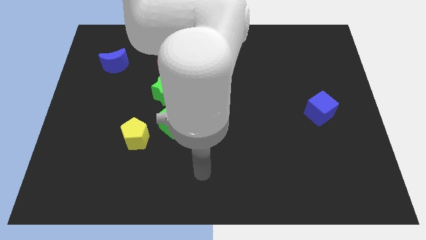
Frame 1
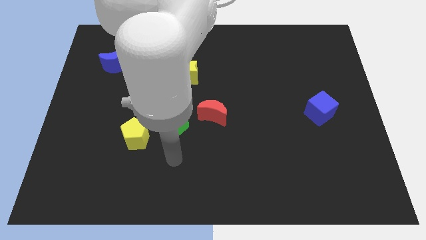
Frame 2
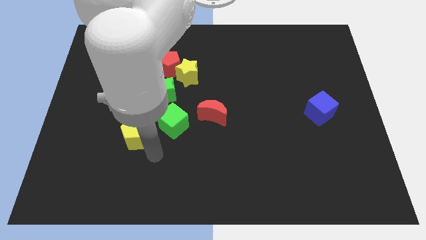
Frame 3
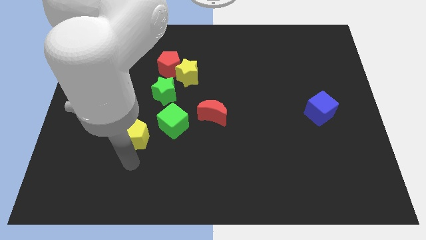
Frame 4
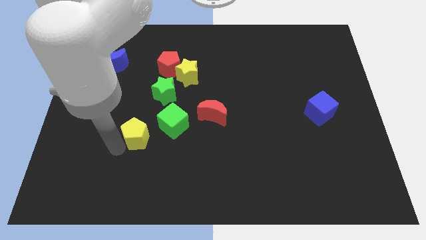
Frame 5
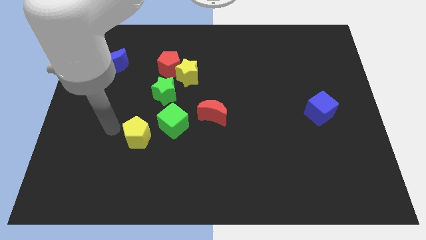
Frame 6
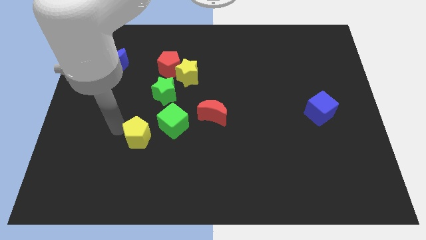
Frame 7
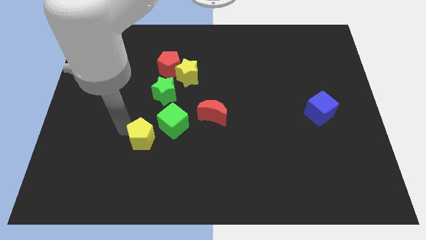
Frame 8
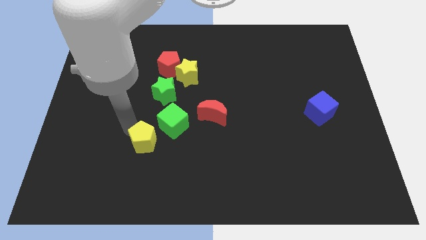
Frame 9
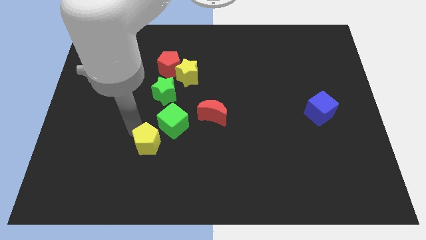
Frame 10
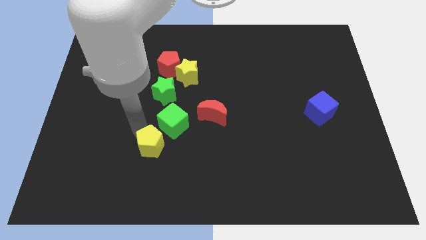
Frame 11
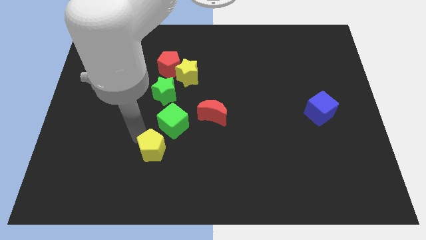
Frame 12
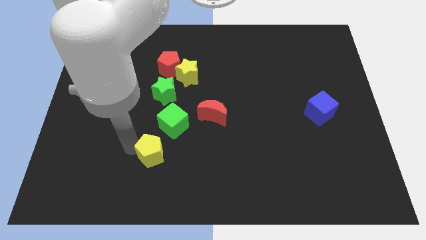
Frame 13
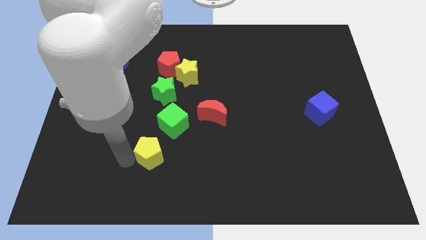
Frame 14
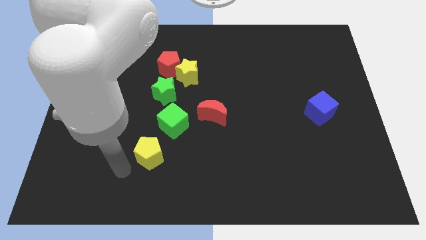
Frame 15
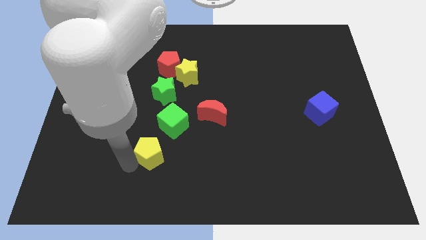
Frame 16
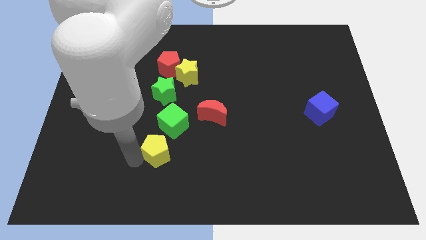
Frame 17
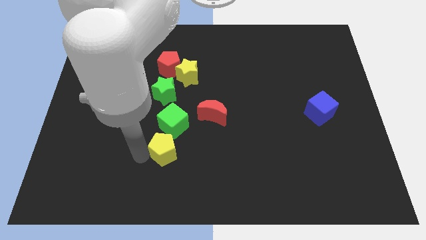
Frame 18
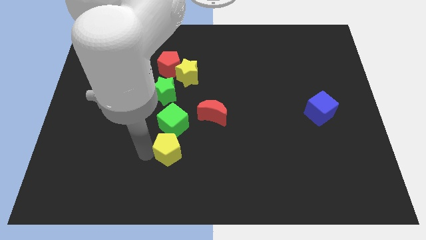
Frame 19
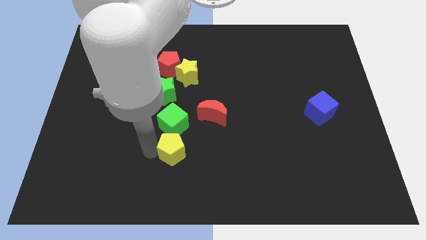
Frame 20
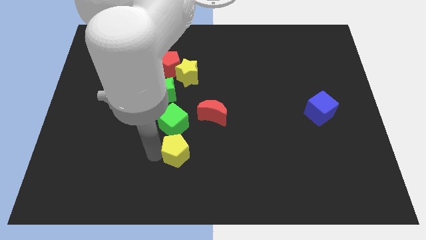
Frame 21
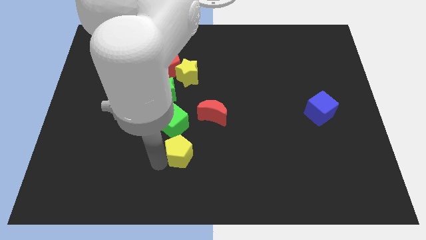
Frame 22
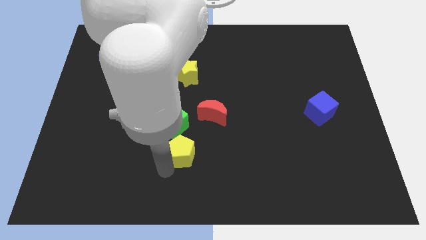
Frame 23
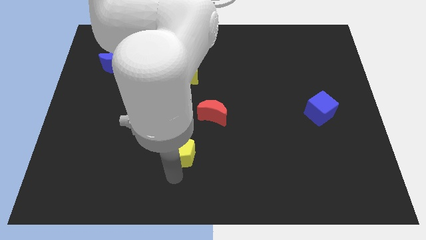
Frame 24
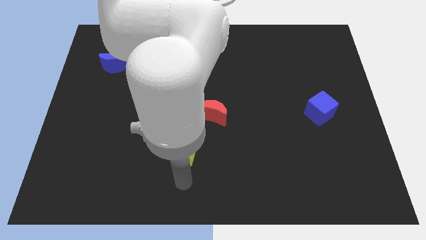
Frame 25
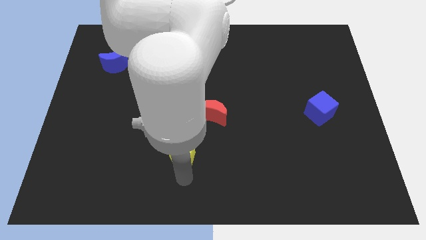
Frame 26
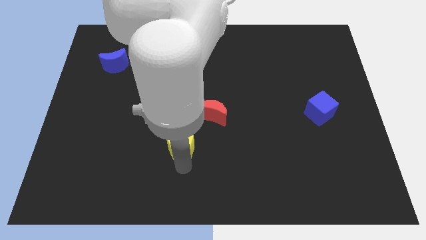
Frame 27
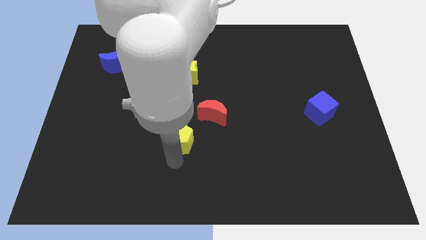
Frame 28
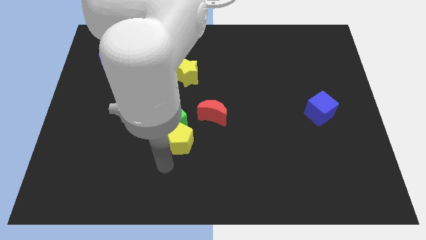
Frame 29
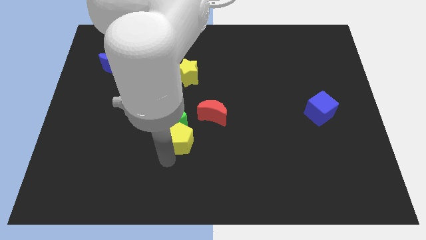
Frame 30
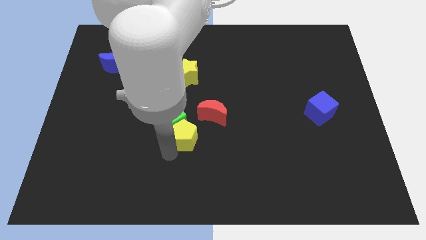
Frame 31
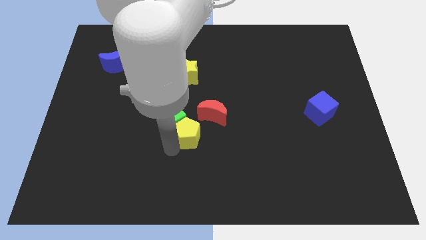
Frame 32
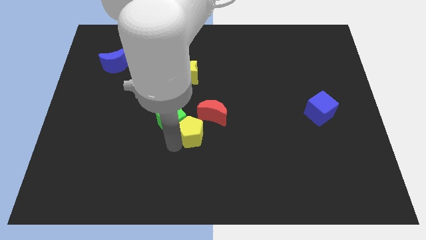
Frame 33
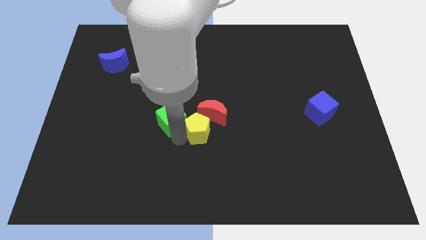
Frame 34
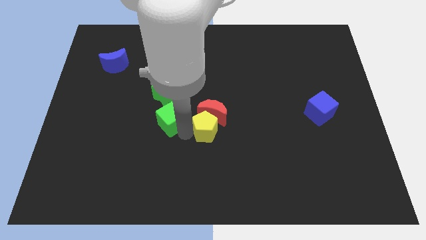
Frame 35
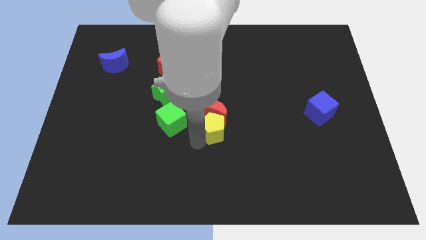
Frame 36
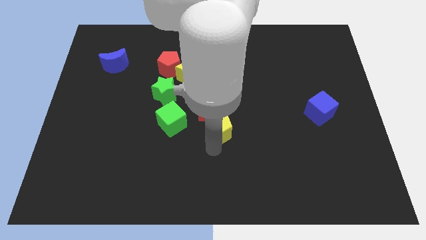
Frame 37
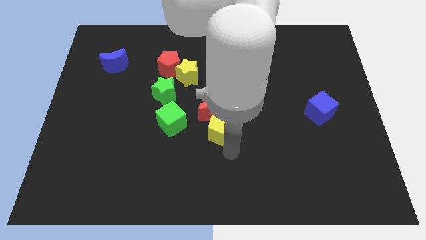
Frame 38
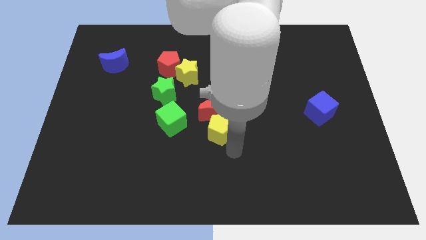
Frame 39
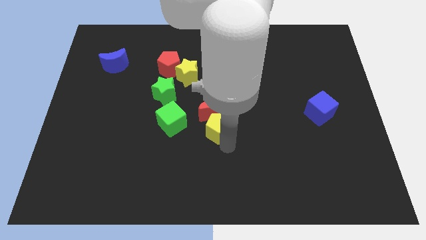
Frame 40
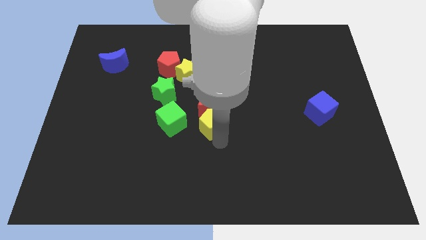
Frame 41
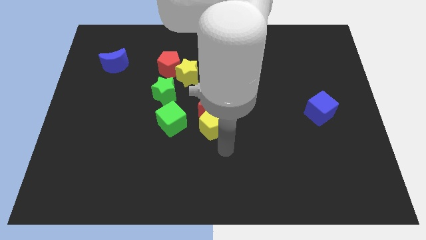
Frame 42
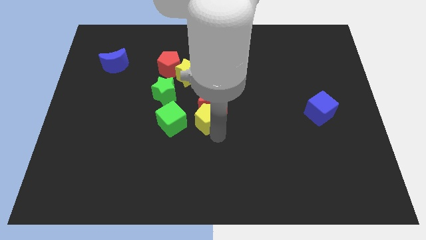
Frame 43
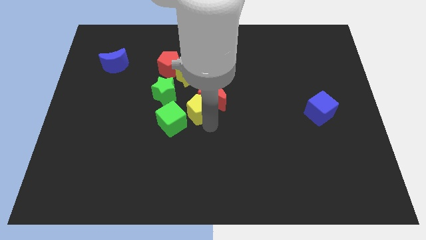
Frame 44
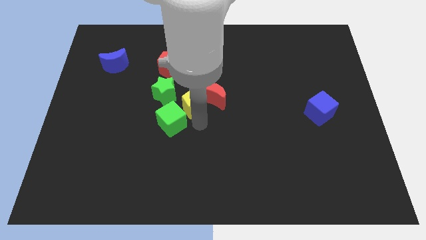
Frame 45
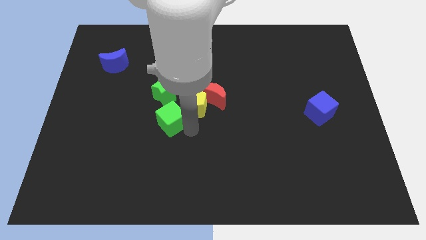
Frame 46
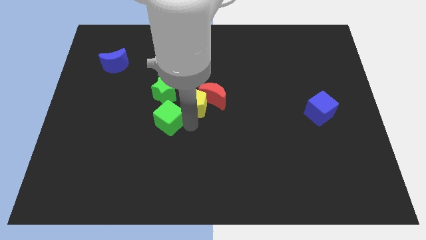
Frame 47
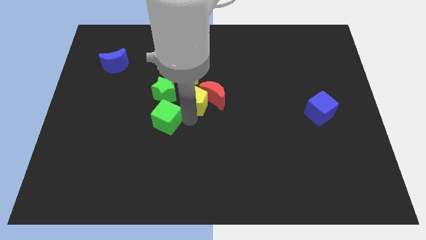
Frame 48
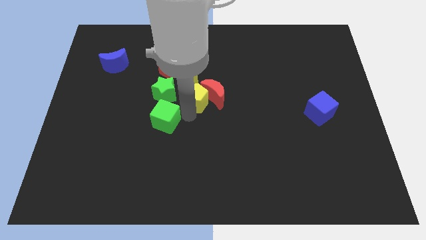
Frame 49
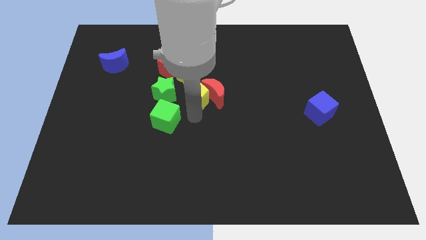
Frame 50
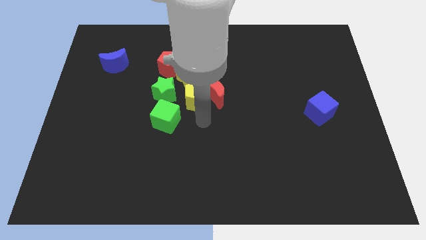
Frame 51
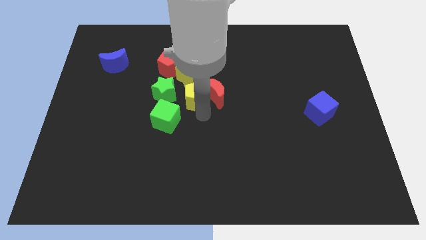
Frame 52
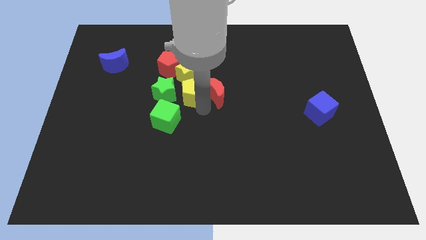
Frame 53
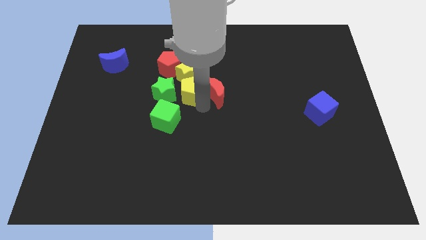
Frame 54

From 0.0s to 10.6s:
put the yellow pentagon to the yellow star

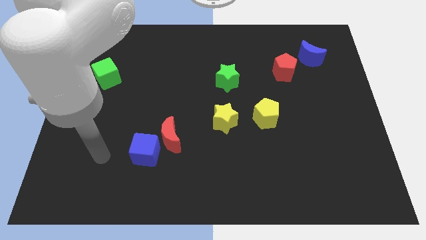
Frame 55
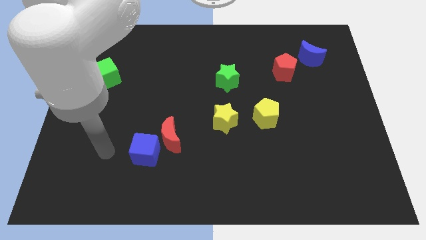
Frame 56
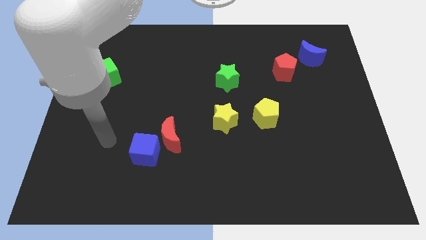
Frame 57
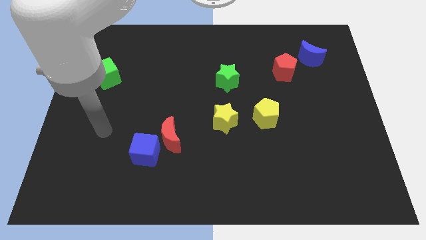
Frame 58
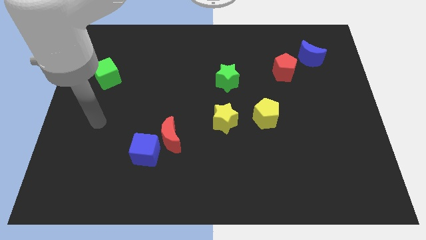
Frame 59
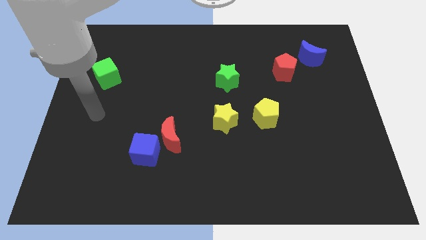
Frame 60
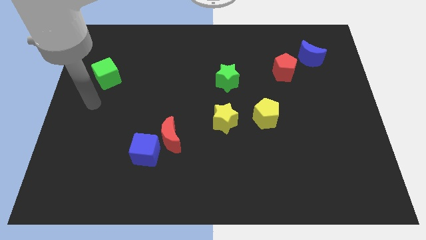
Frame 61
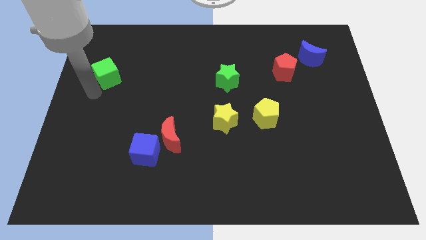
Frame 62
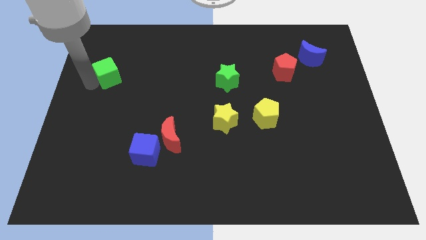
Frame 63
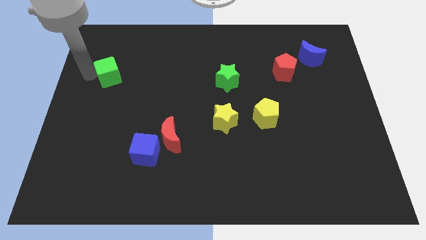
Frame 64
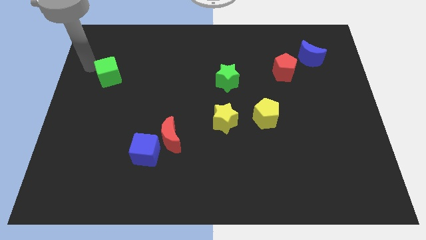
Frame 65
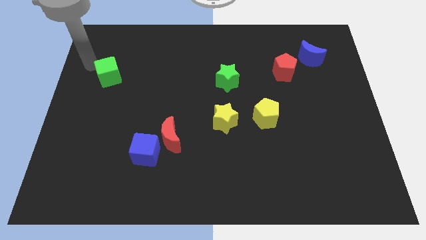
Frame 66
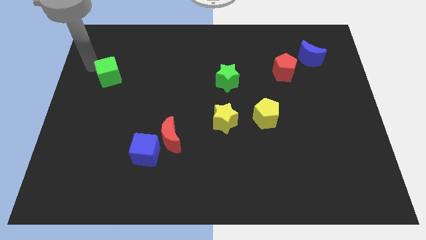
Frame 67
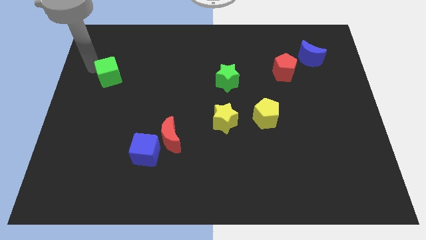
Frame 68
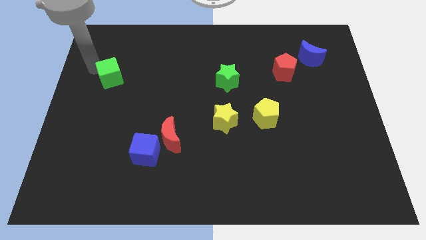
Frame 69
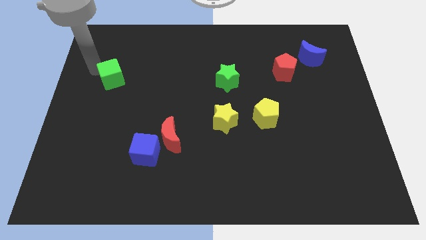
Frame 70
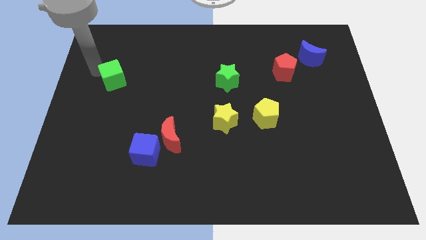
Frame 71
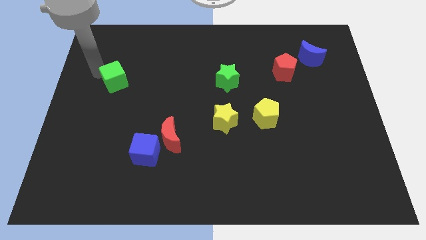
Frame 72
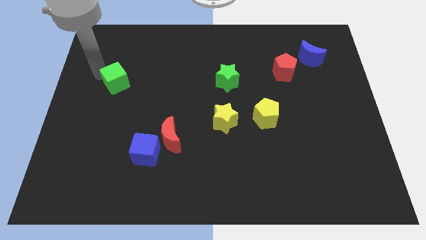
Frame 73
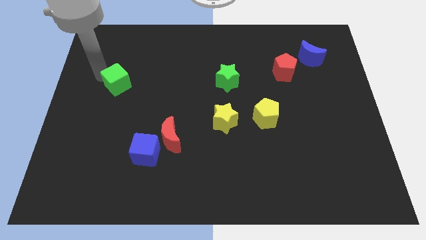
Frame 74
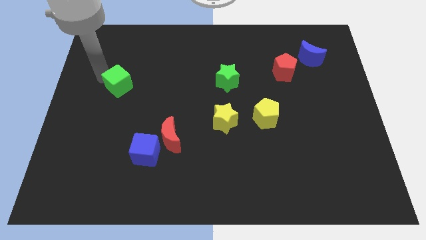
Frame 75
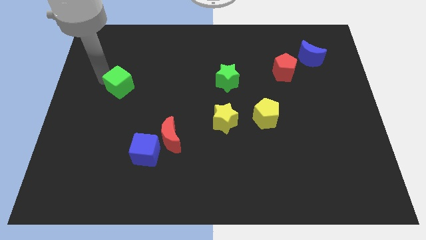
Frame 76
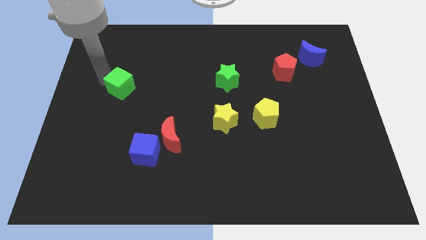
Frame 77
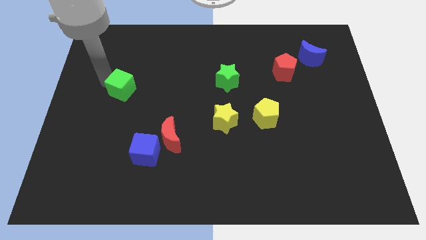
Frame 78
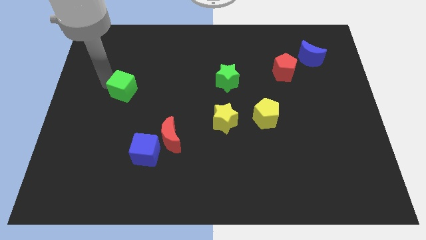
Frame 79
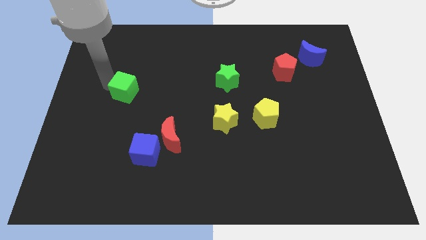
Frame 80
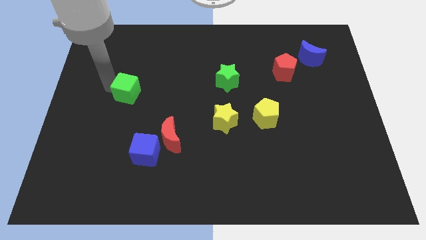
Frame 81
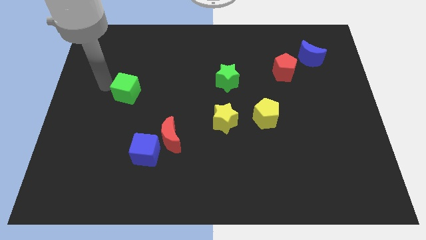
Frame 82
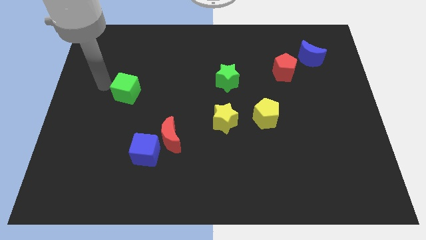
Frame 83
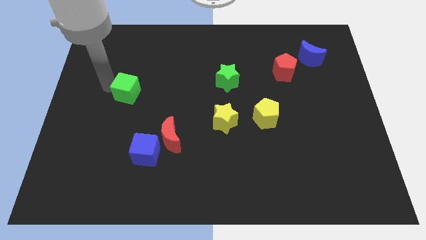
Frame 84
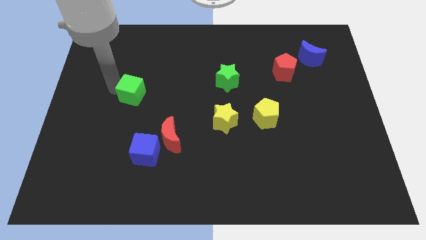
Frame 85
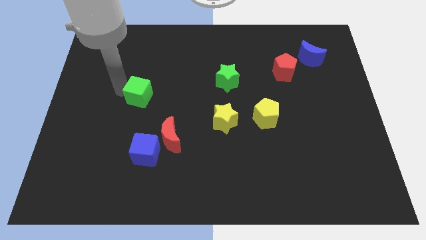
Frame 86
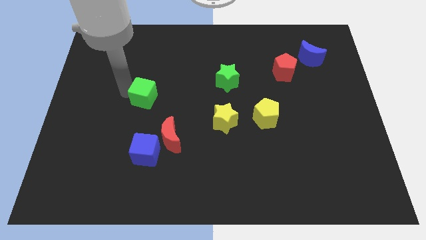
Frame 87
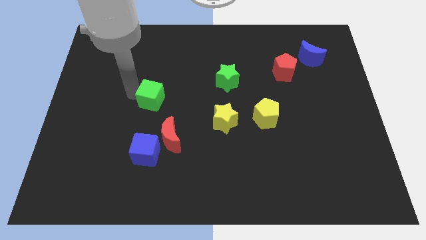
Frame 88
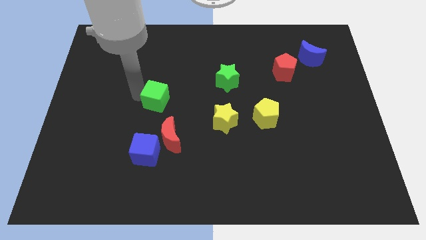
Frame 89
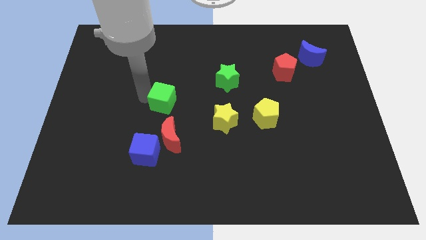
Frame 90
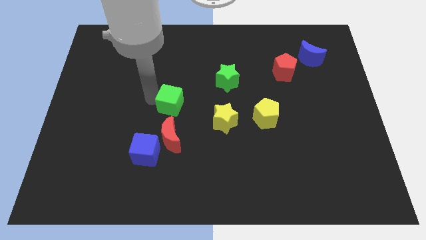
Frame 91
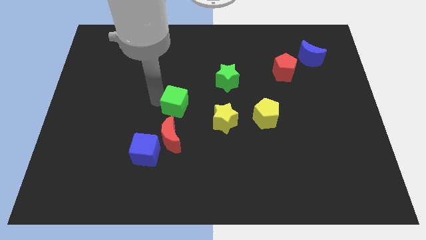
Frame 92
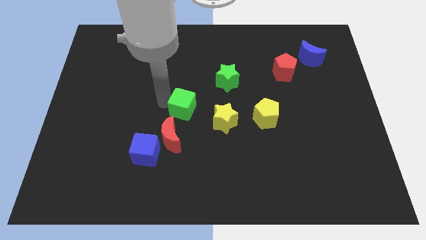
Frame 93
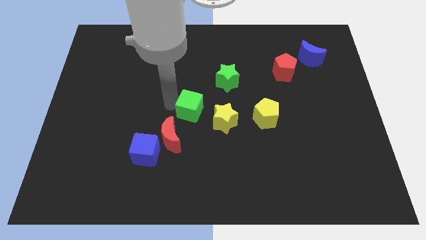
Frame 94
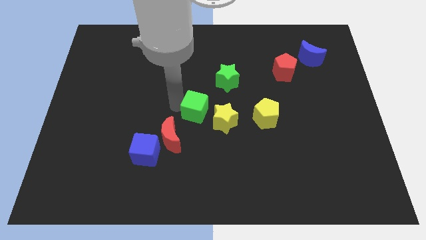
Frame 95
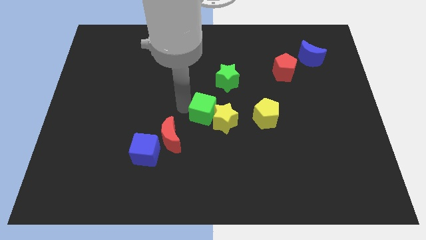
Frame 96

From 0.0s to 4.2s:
move the green cube towards the yellow star
